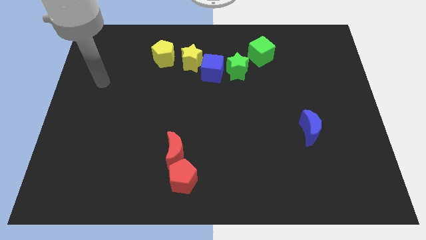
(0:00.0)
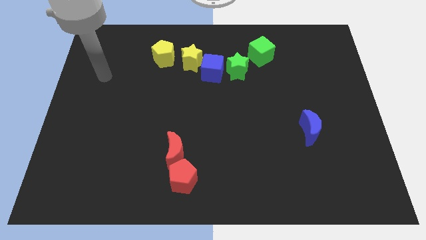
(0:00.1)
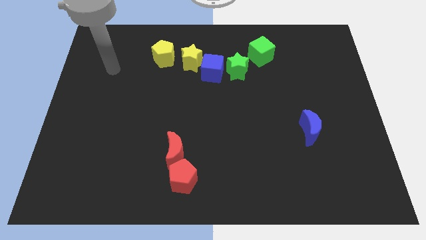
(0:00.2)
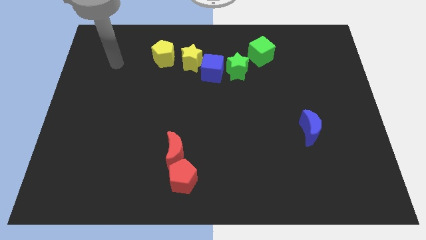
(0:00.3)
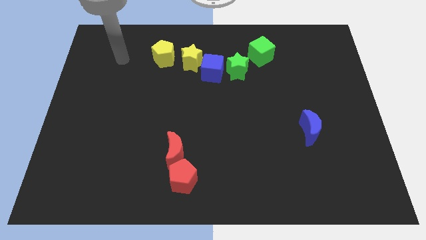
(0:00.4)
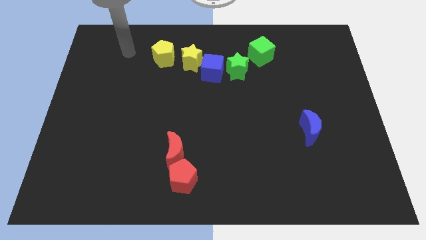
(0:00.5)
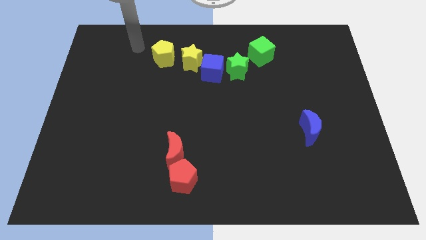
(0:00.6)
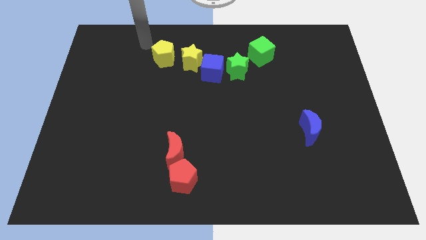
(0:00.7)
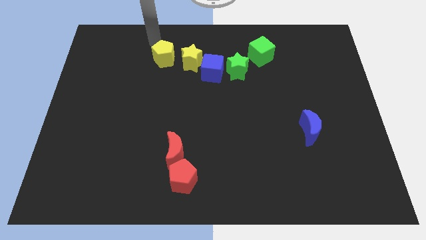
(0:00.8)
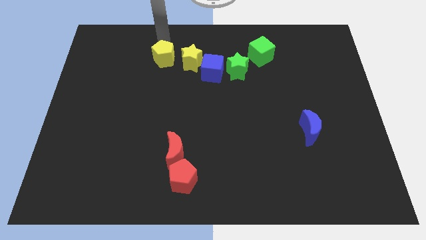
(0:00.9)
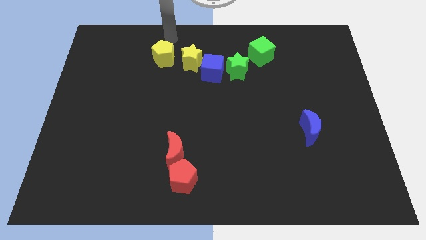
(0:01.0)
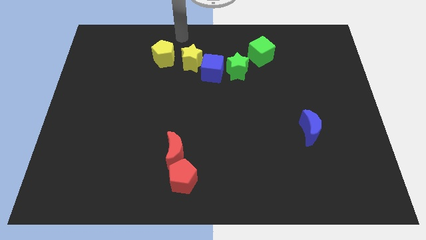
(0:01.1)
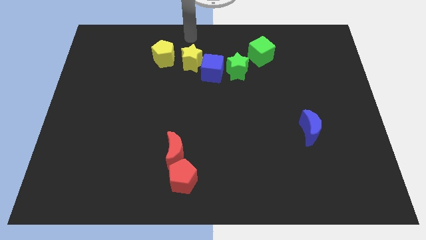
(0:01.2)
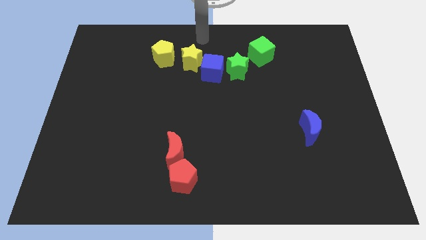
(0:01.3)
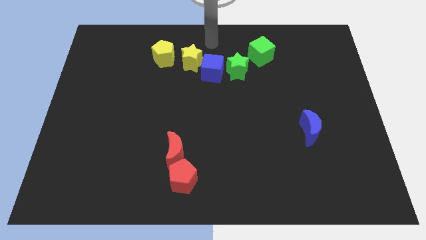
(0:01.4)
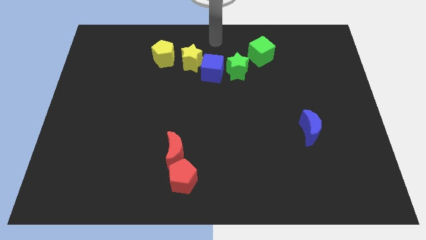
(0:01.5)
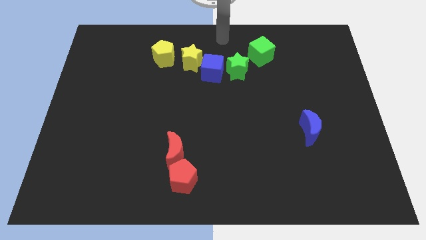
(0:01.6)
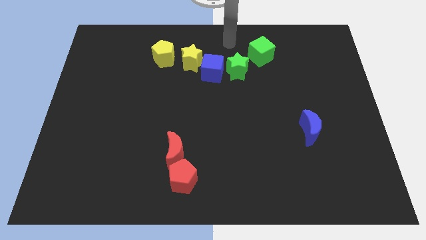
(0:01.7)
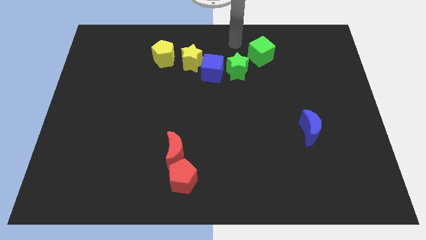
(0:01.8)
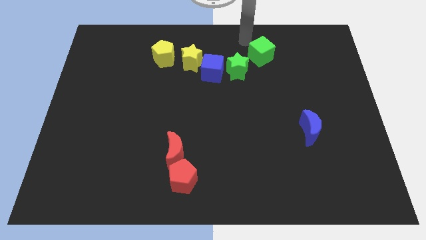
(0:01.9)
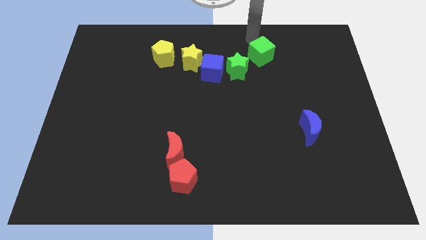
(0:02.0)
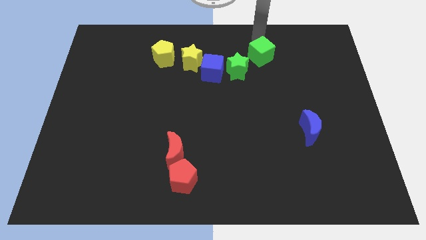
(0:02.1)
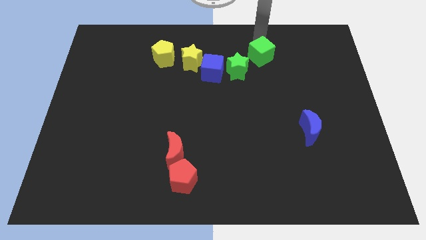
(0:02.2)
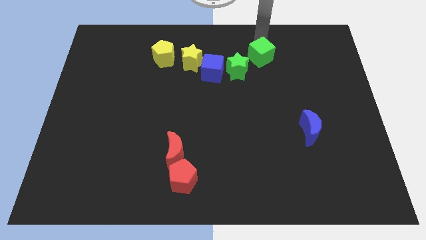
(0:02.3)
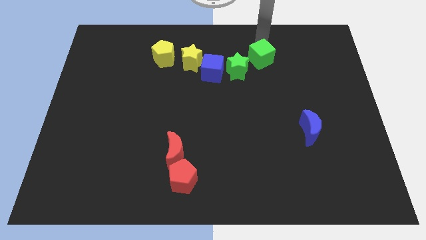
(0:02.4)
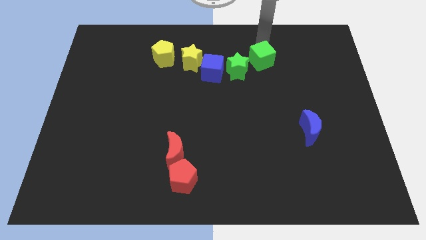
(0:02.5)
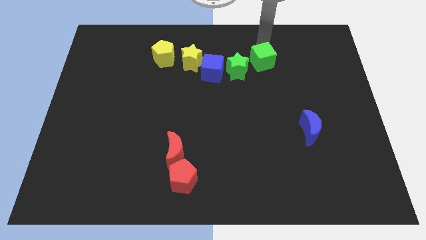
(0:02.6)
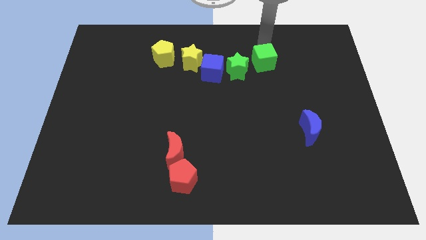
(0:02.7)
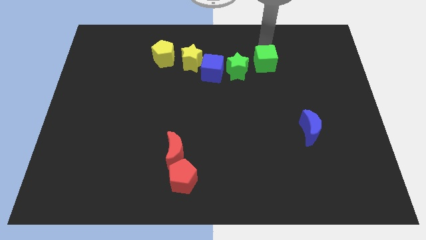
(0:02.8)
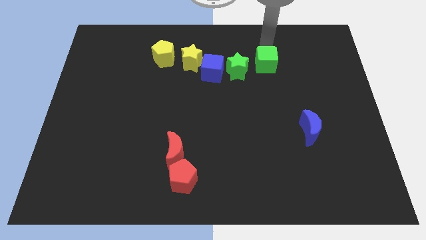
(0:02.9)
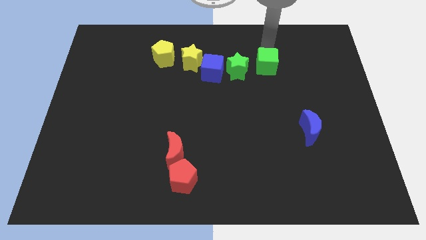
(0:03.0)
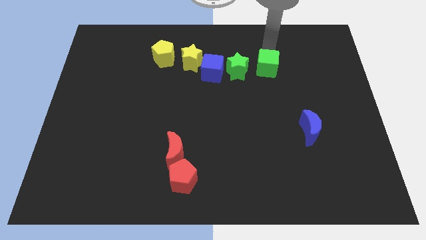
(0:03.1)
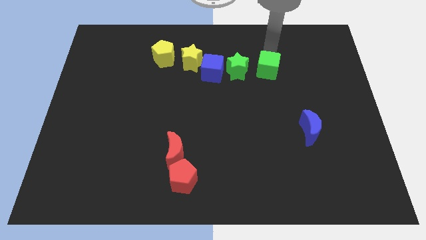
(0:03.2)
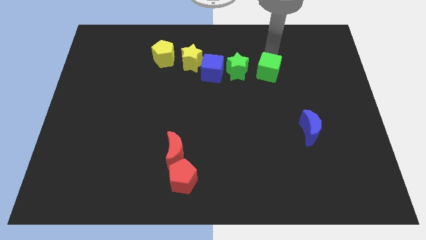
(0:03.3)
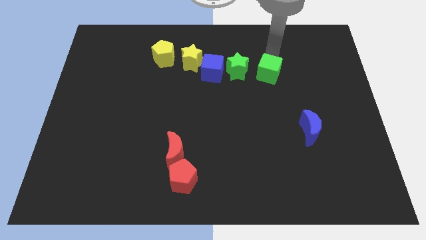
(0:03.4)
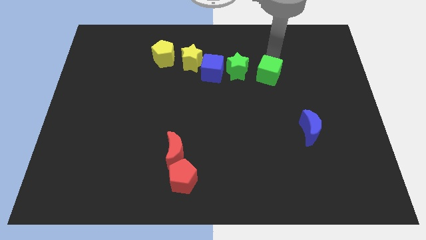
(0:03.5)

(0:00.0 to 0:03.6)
push the green cube down a little

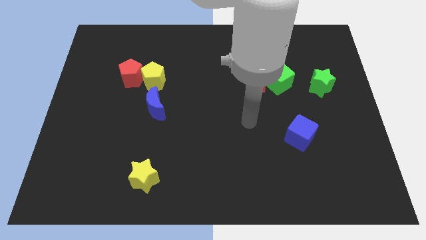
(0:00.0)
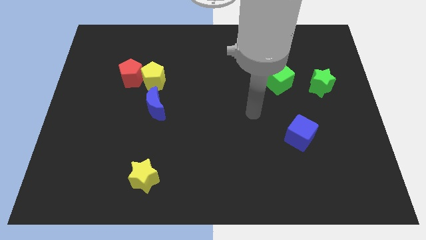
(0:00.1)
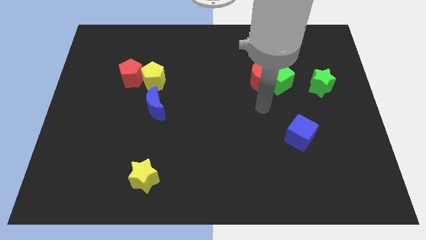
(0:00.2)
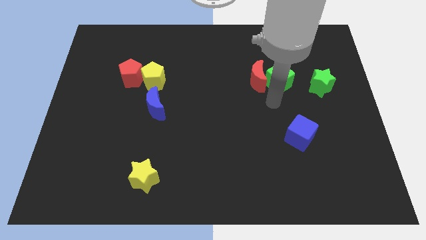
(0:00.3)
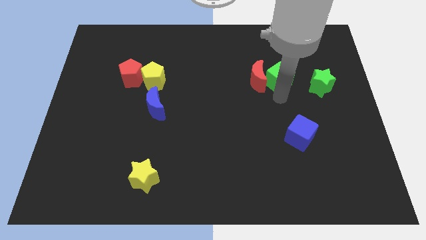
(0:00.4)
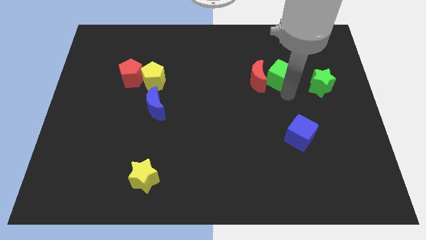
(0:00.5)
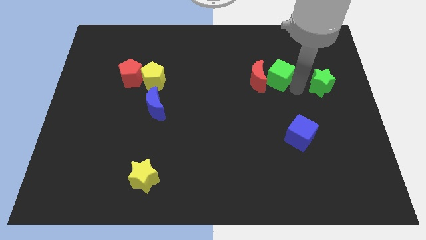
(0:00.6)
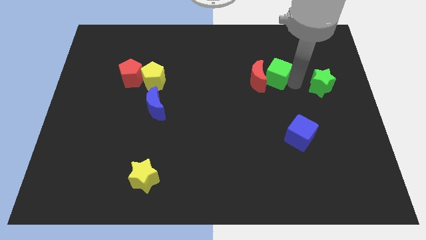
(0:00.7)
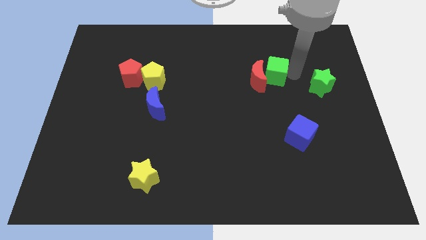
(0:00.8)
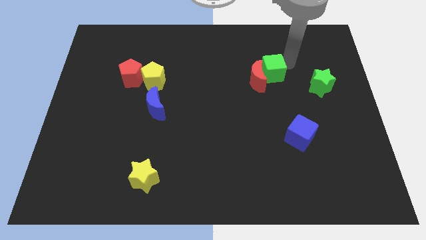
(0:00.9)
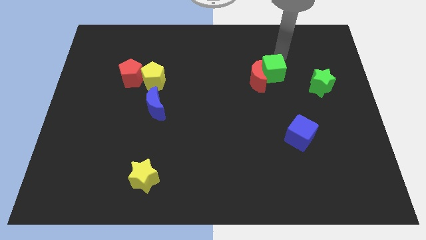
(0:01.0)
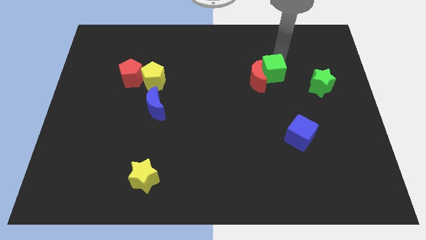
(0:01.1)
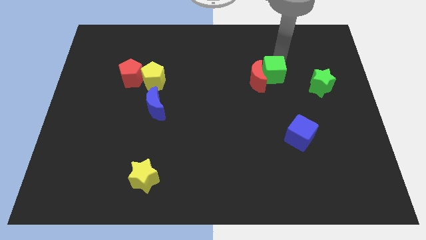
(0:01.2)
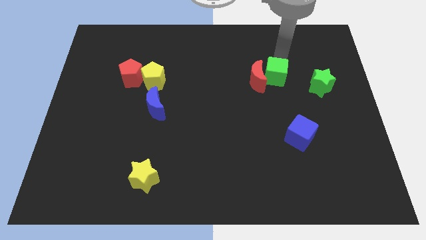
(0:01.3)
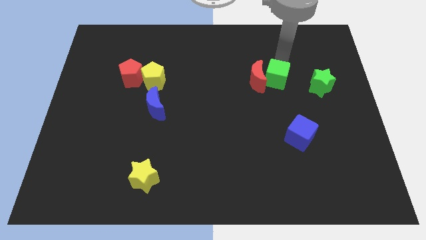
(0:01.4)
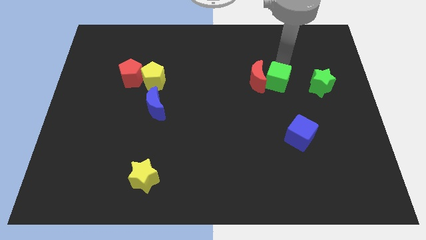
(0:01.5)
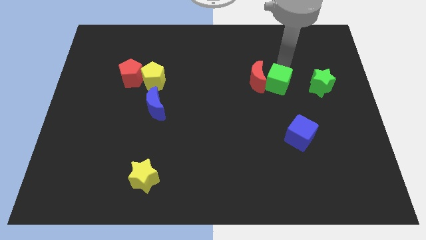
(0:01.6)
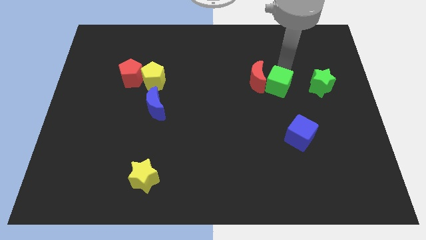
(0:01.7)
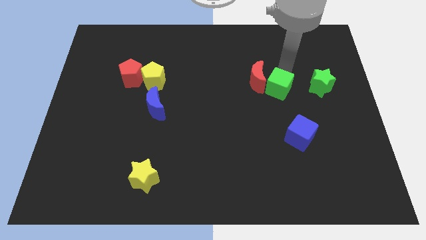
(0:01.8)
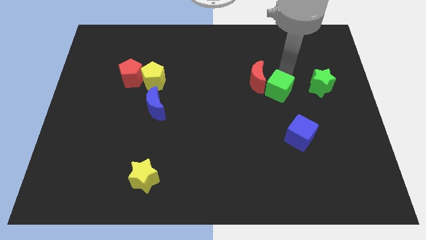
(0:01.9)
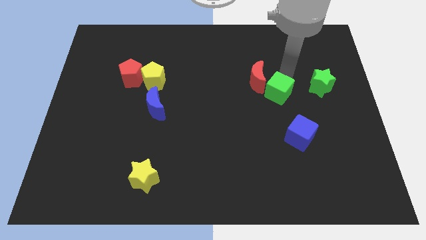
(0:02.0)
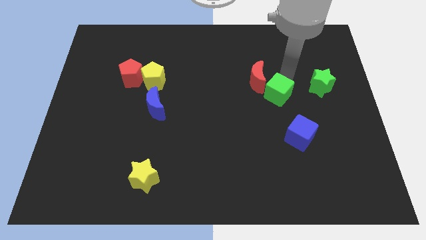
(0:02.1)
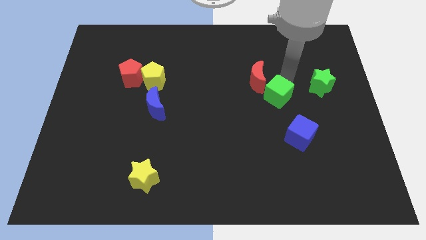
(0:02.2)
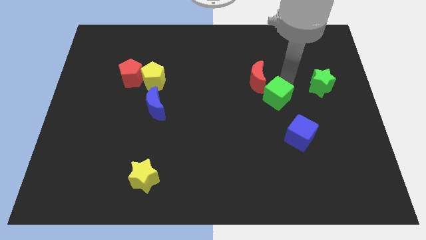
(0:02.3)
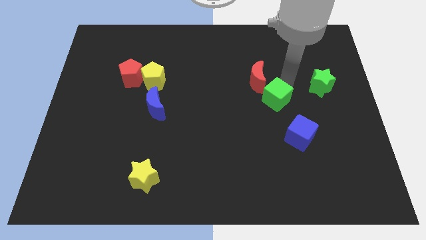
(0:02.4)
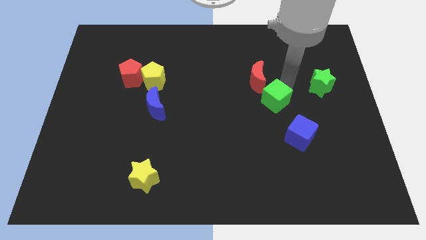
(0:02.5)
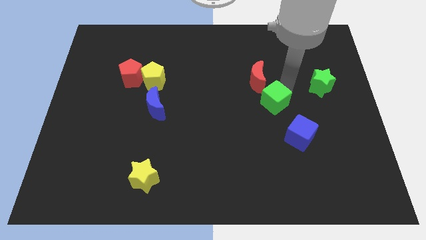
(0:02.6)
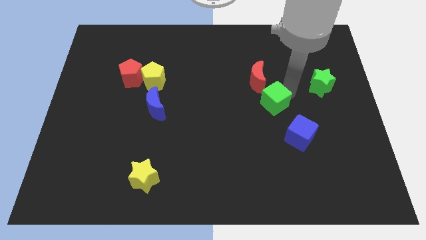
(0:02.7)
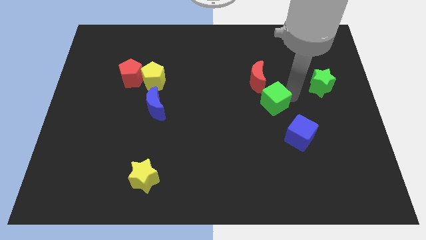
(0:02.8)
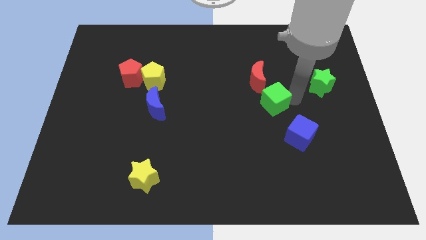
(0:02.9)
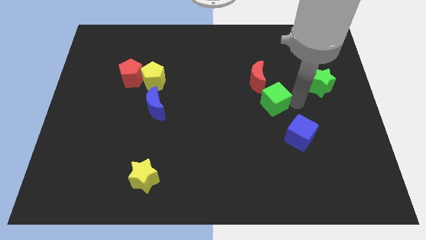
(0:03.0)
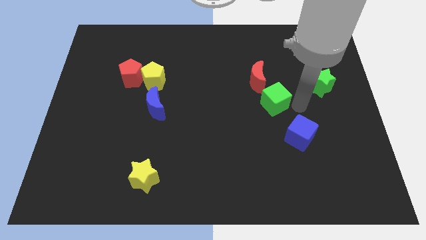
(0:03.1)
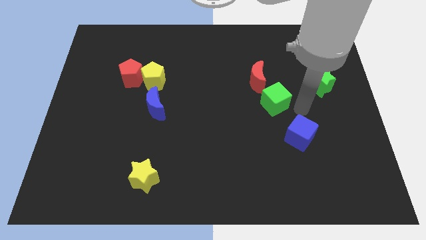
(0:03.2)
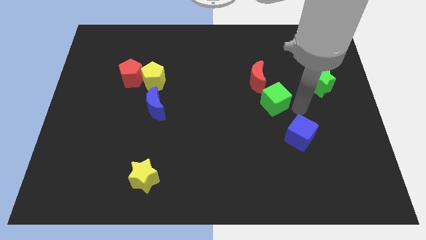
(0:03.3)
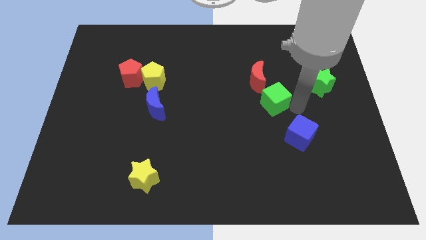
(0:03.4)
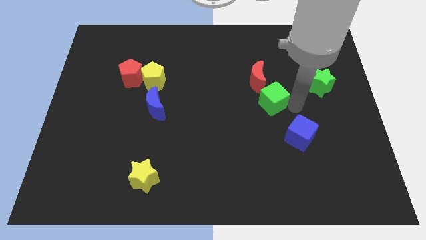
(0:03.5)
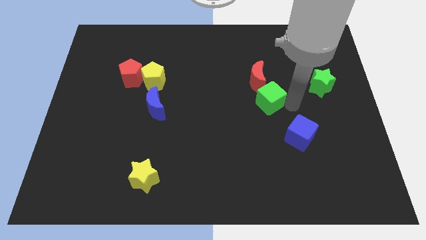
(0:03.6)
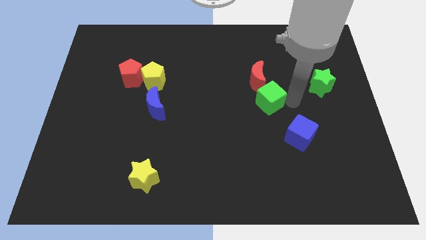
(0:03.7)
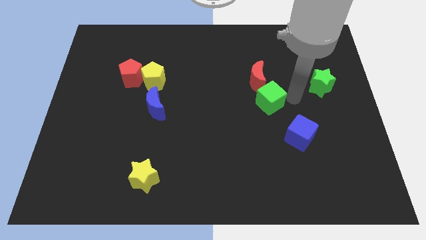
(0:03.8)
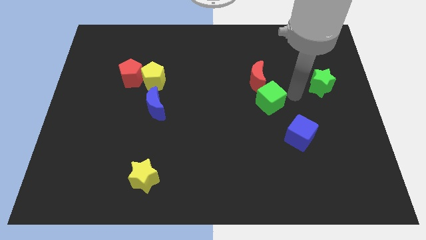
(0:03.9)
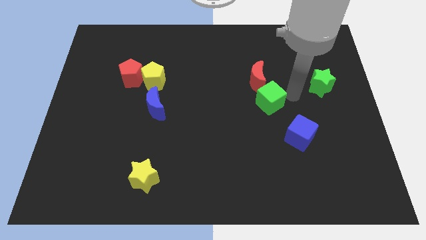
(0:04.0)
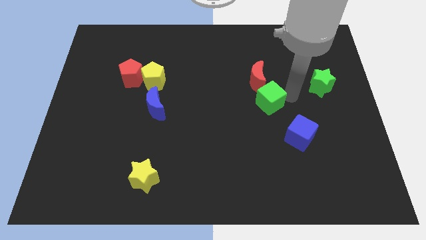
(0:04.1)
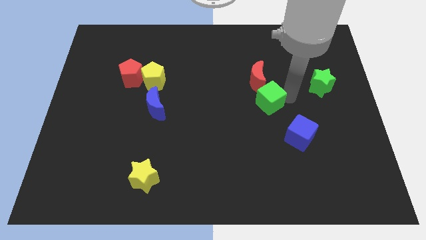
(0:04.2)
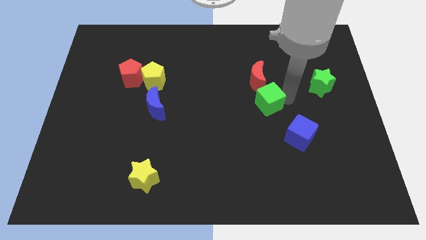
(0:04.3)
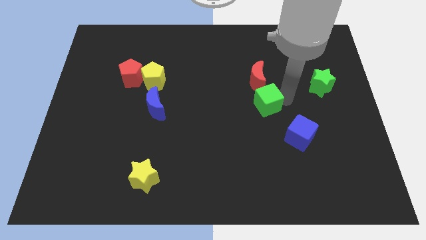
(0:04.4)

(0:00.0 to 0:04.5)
push the green cube a little bit downwards and to the left
